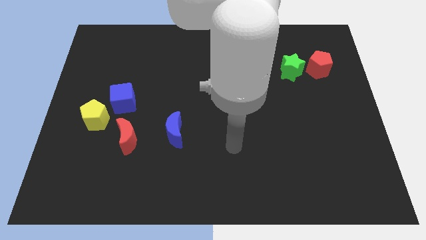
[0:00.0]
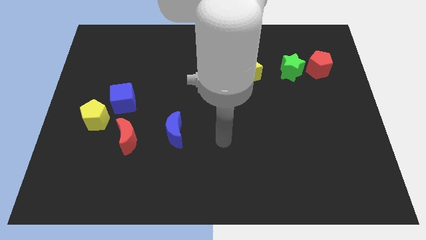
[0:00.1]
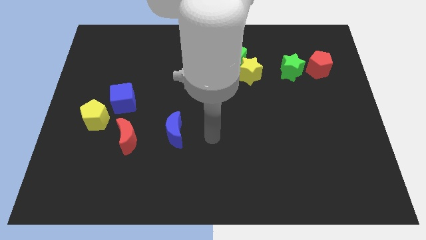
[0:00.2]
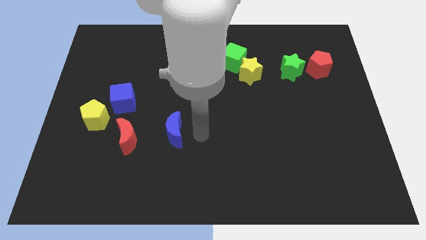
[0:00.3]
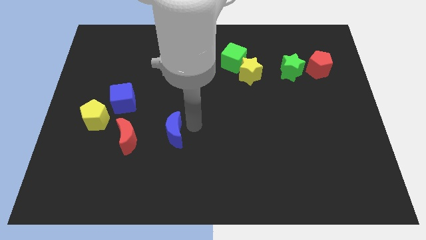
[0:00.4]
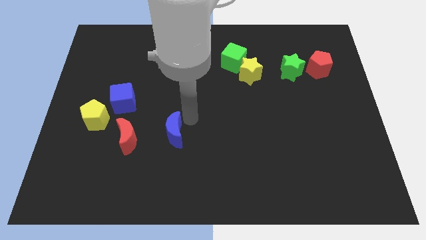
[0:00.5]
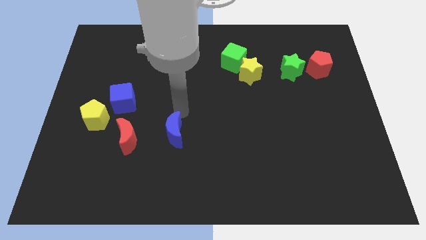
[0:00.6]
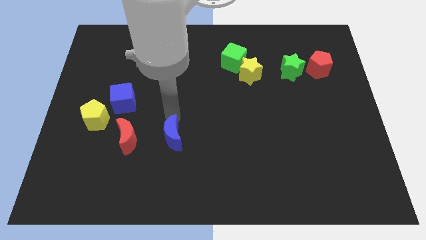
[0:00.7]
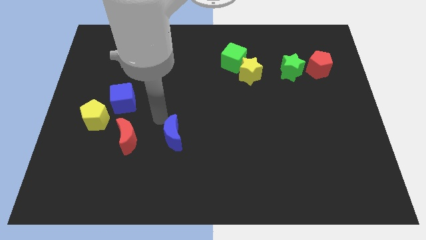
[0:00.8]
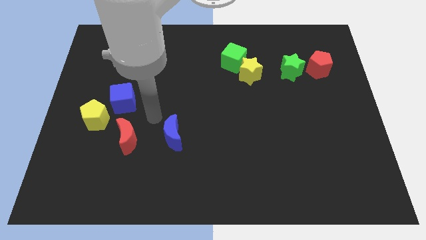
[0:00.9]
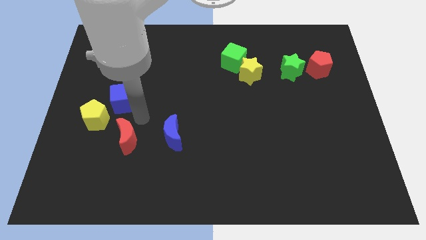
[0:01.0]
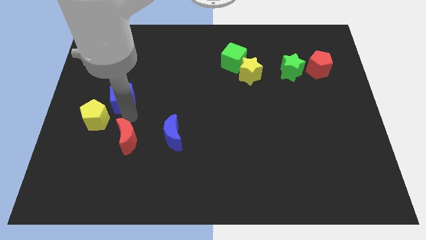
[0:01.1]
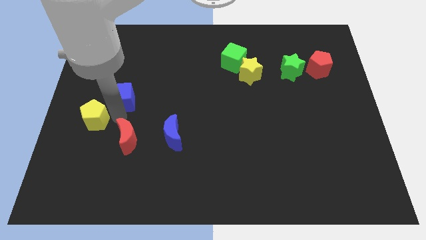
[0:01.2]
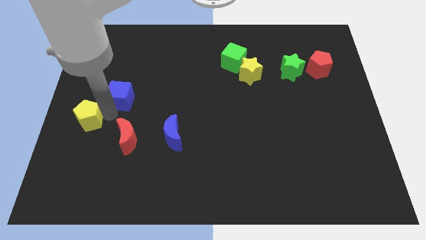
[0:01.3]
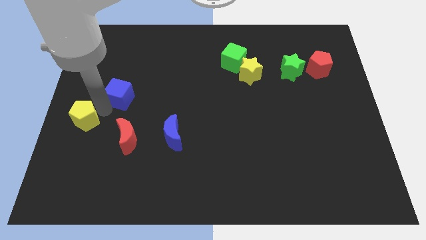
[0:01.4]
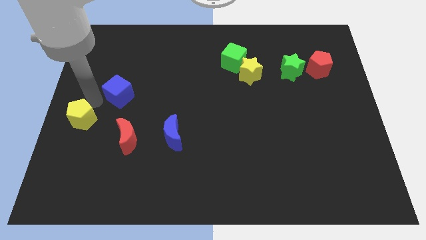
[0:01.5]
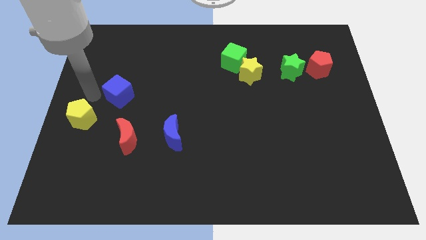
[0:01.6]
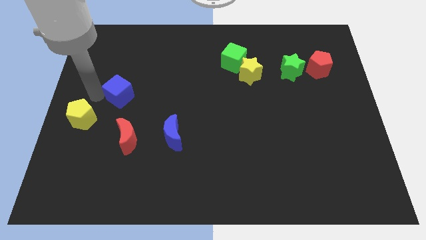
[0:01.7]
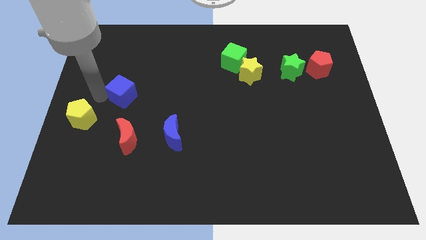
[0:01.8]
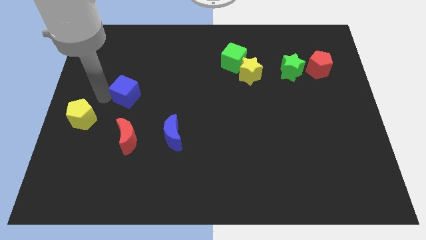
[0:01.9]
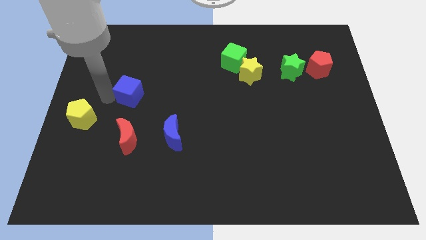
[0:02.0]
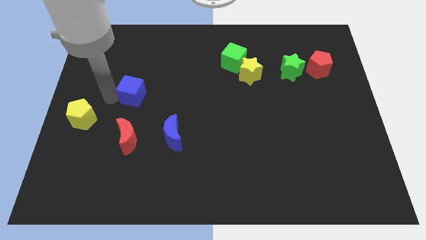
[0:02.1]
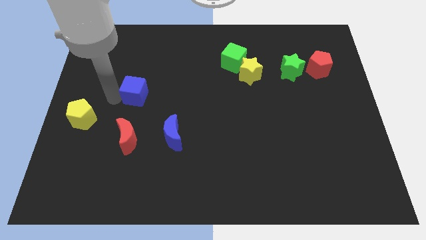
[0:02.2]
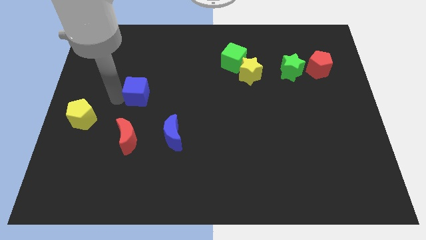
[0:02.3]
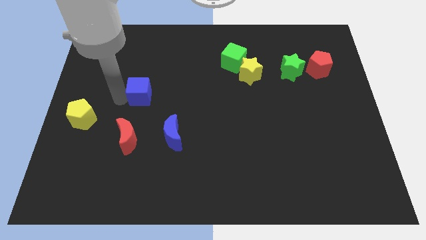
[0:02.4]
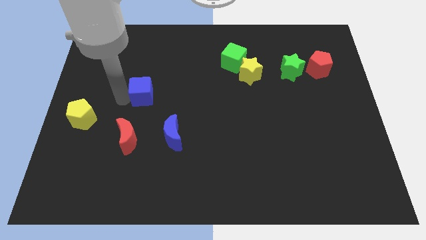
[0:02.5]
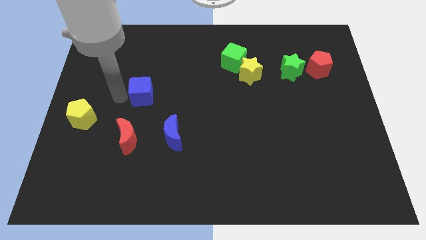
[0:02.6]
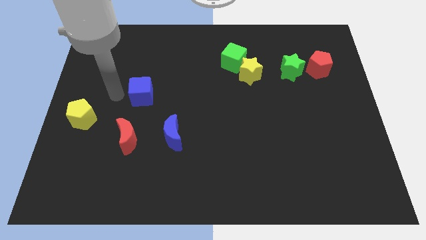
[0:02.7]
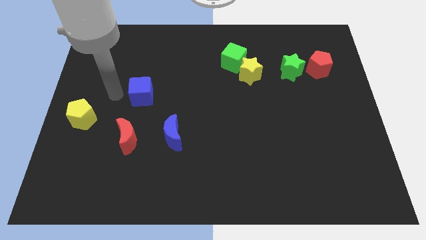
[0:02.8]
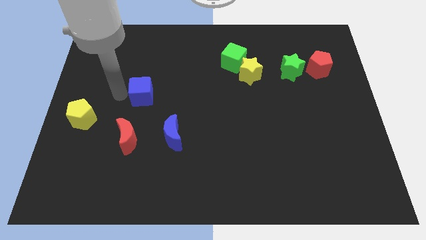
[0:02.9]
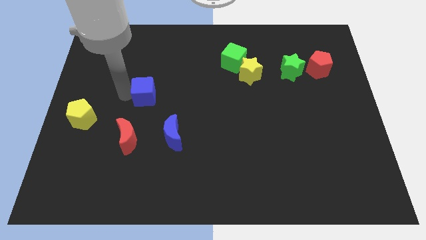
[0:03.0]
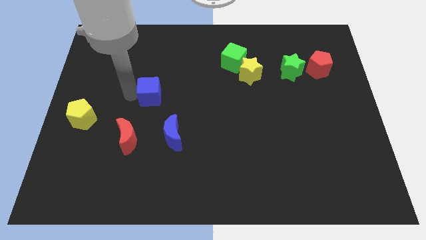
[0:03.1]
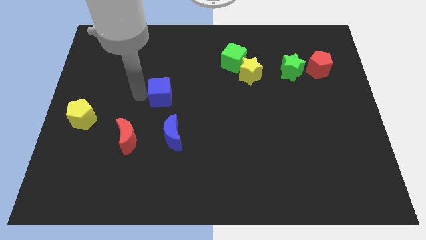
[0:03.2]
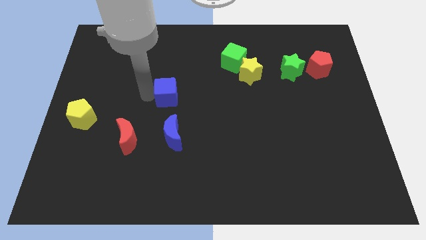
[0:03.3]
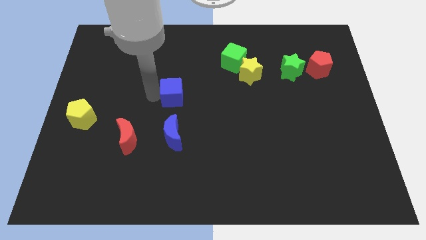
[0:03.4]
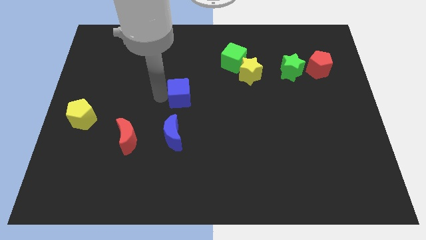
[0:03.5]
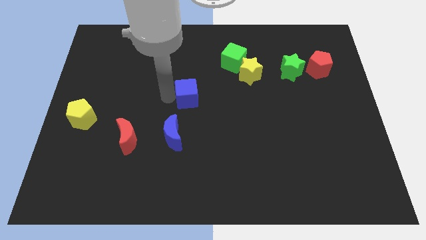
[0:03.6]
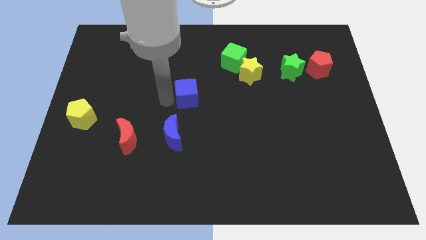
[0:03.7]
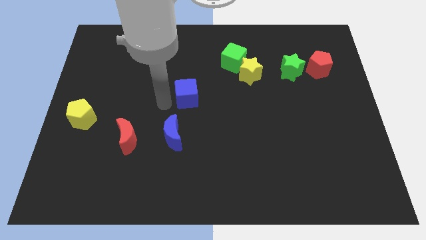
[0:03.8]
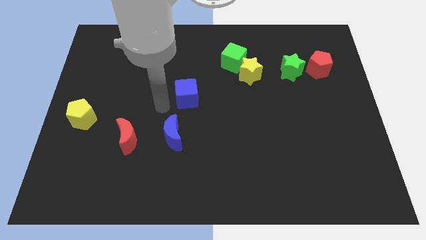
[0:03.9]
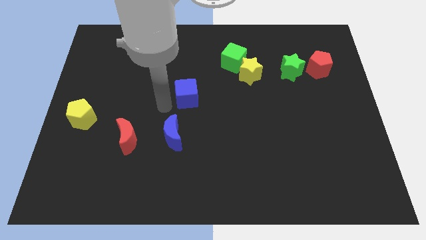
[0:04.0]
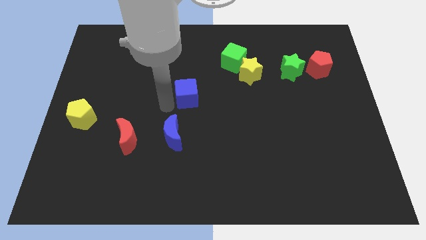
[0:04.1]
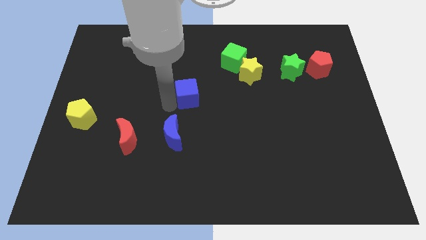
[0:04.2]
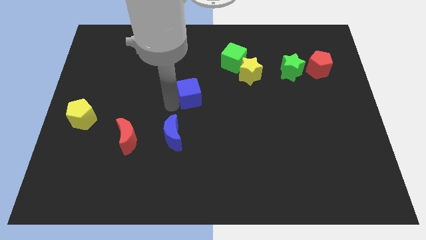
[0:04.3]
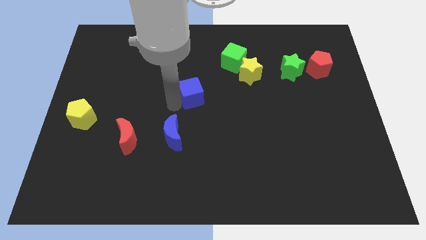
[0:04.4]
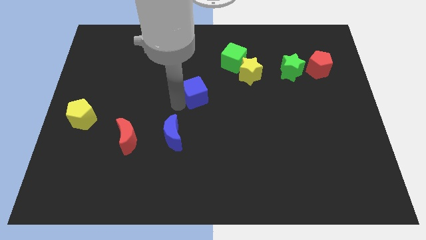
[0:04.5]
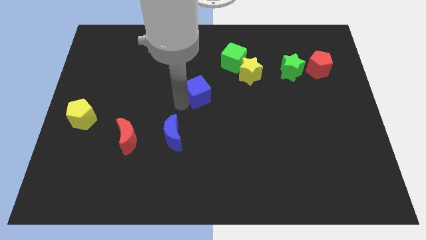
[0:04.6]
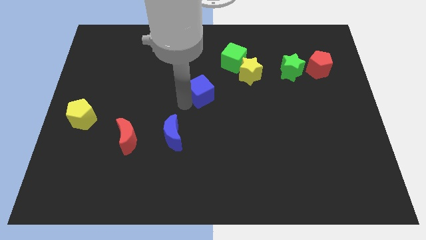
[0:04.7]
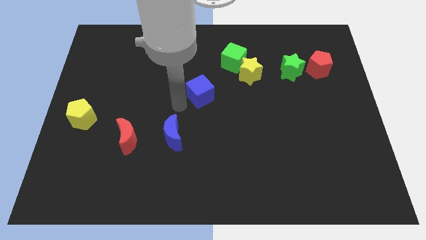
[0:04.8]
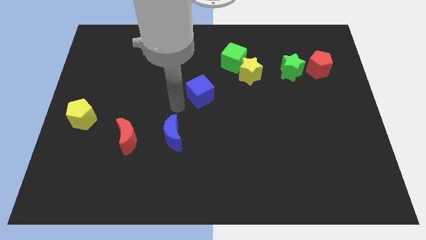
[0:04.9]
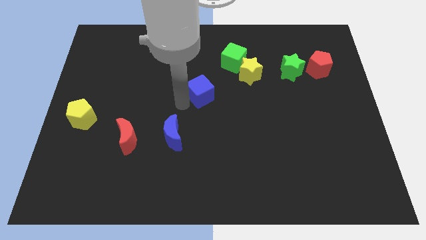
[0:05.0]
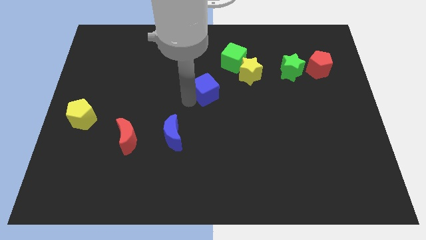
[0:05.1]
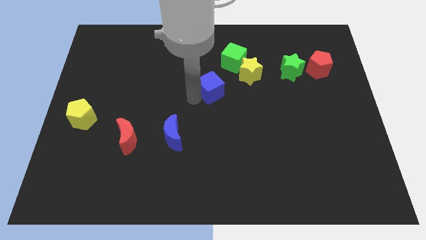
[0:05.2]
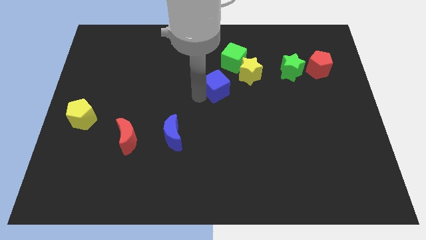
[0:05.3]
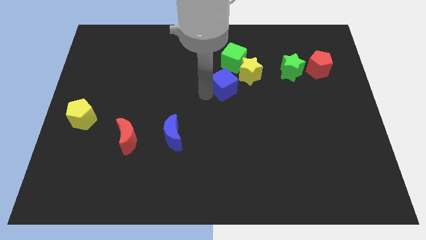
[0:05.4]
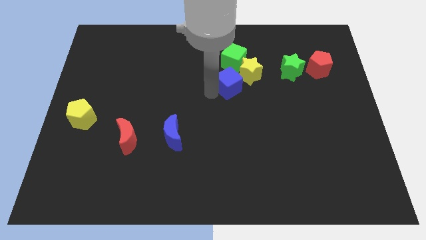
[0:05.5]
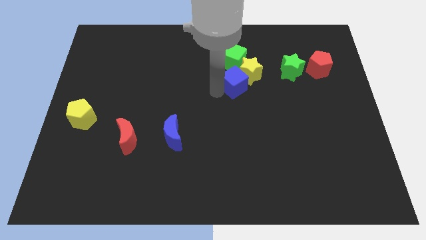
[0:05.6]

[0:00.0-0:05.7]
put the blue cube close to the yellow star
